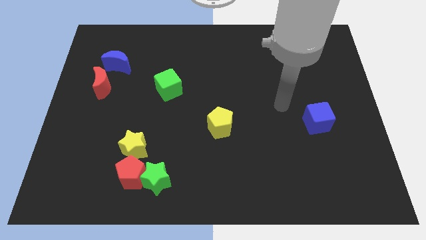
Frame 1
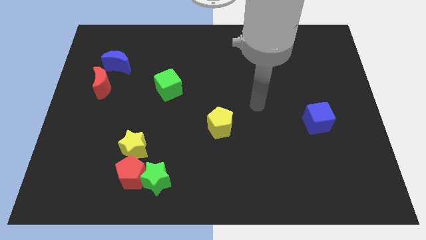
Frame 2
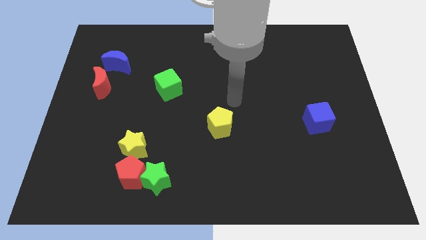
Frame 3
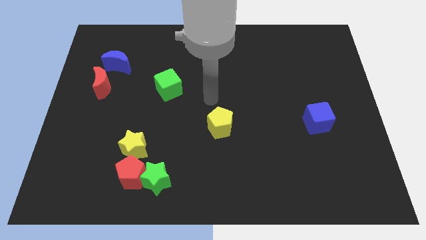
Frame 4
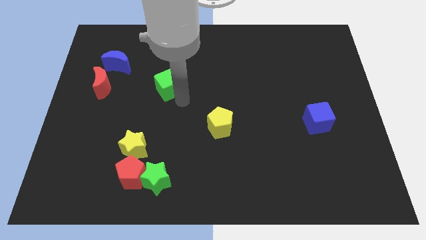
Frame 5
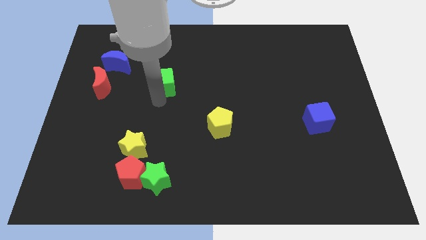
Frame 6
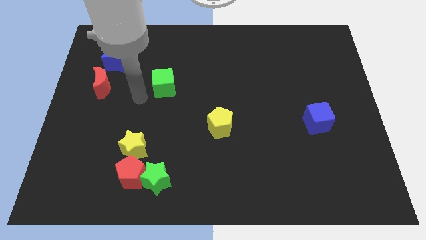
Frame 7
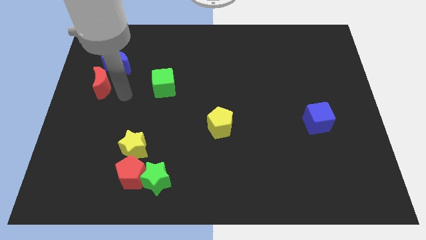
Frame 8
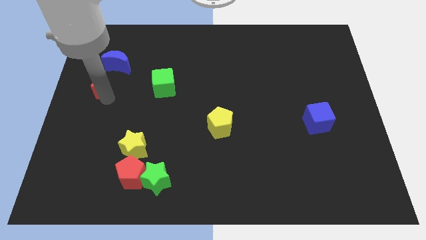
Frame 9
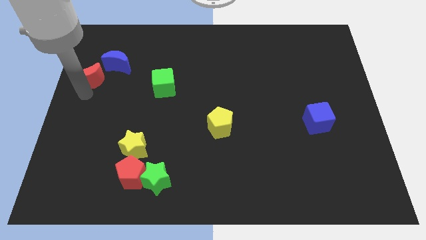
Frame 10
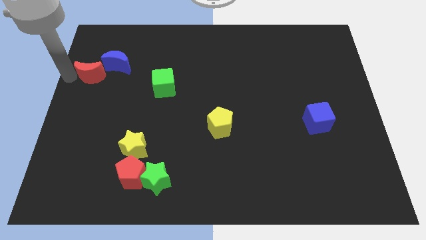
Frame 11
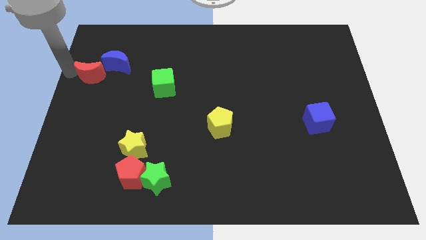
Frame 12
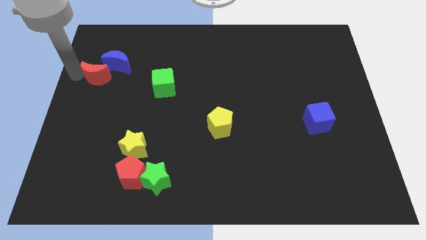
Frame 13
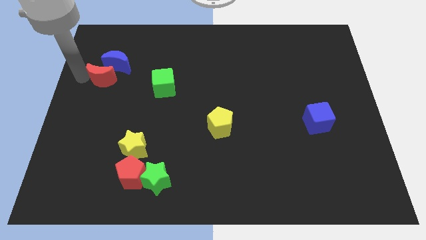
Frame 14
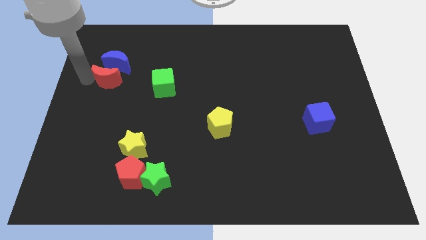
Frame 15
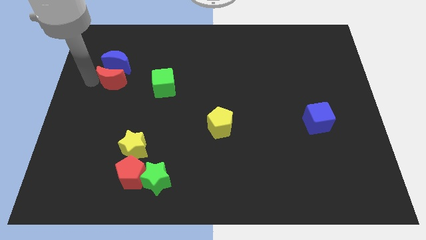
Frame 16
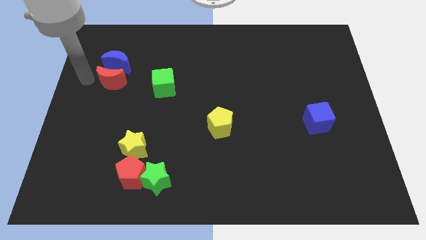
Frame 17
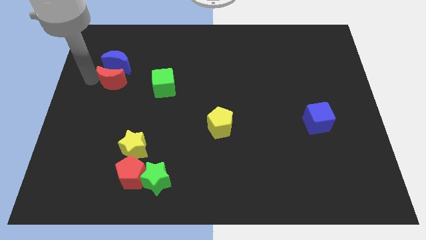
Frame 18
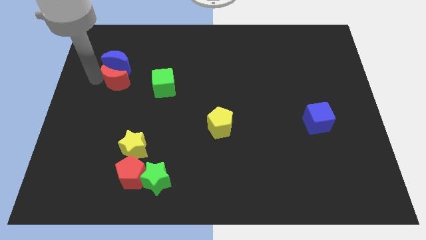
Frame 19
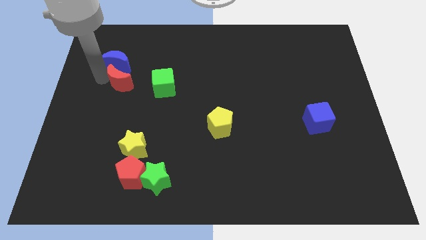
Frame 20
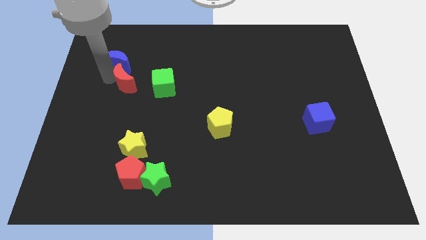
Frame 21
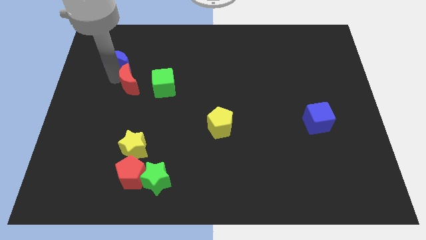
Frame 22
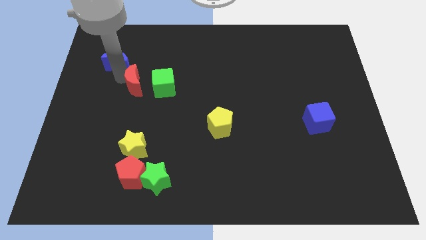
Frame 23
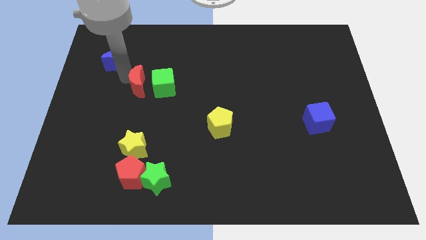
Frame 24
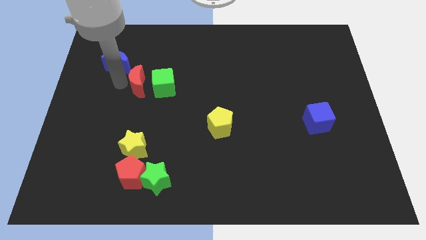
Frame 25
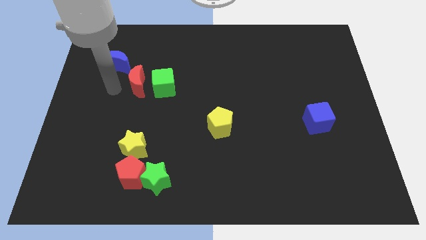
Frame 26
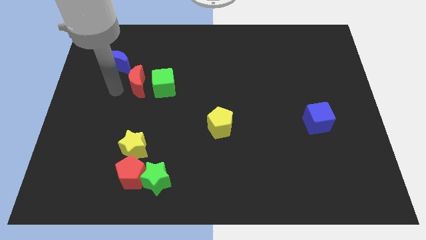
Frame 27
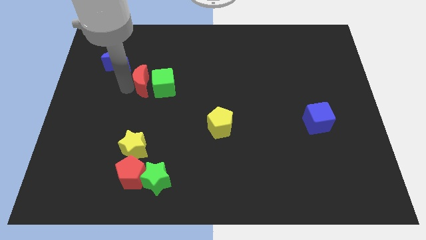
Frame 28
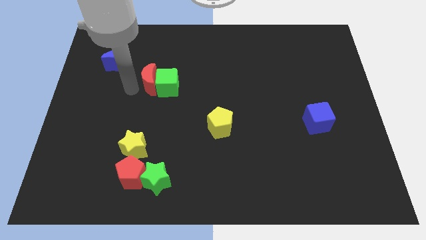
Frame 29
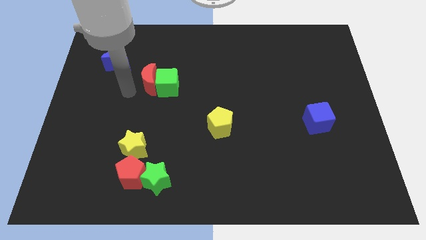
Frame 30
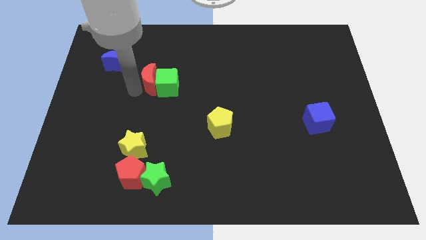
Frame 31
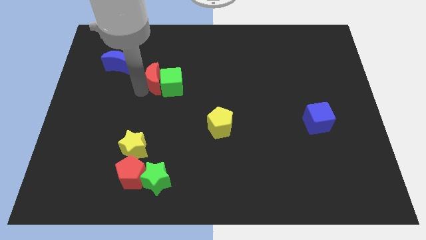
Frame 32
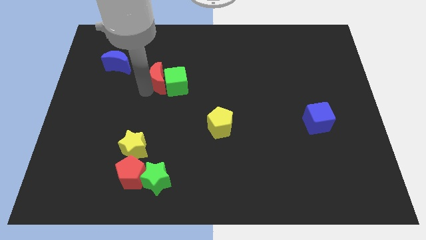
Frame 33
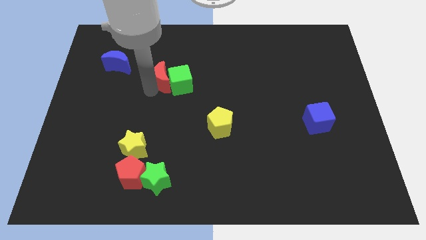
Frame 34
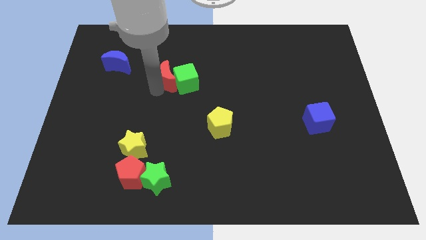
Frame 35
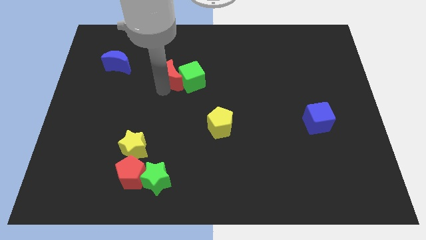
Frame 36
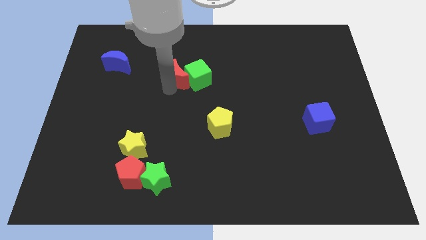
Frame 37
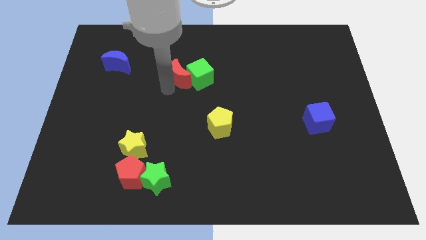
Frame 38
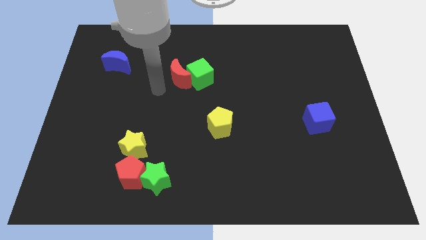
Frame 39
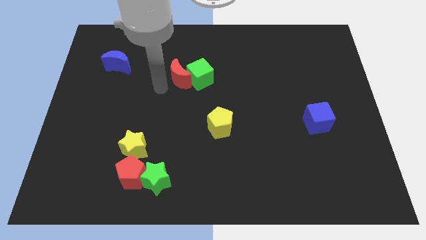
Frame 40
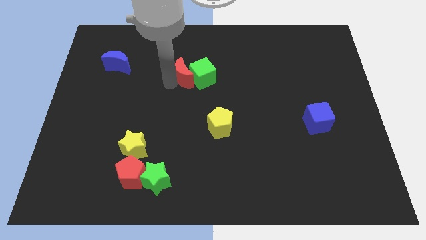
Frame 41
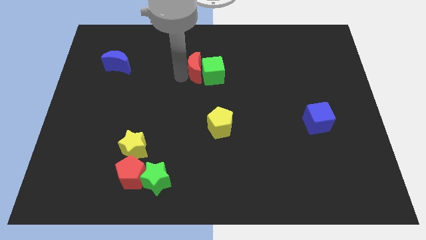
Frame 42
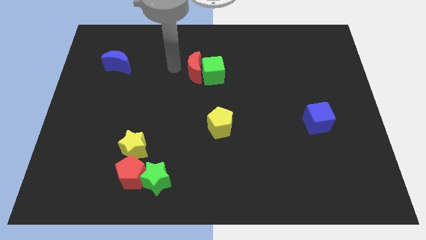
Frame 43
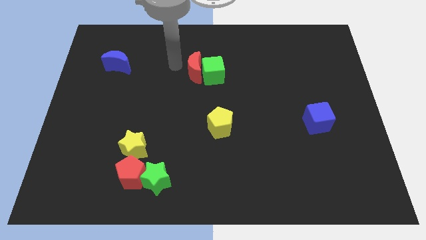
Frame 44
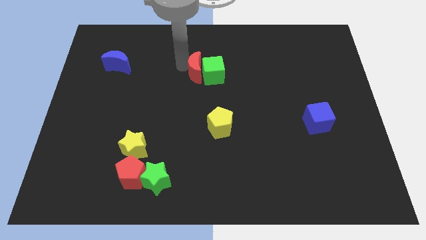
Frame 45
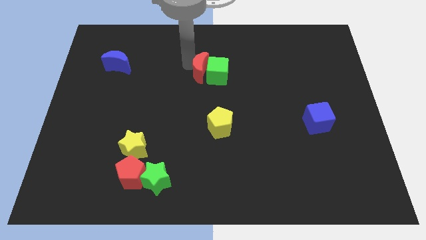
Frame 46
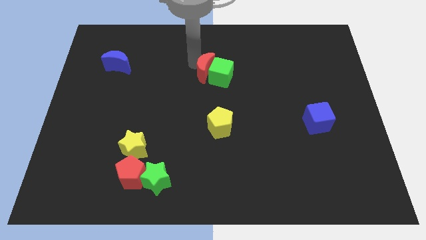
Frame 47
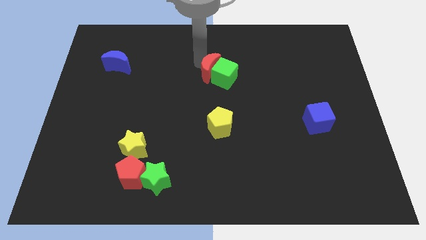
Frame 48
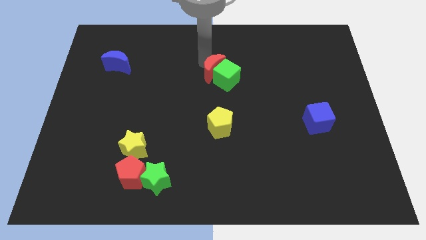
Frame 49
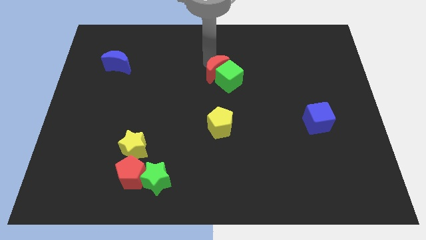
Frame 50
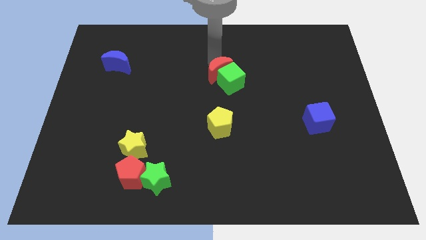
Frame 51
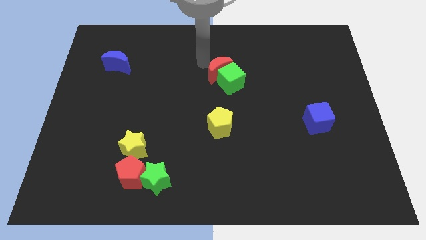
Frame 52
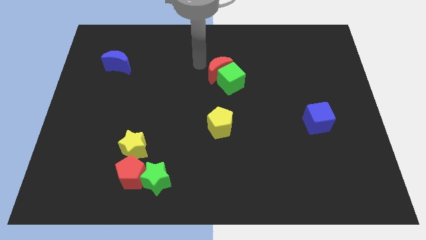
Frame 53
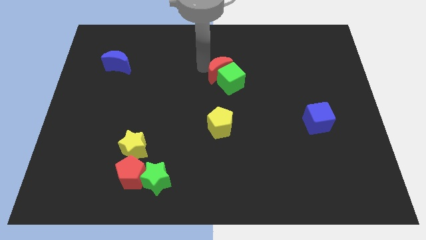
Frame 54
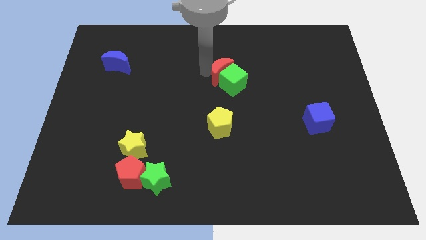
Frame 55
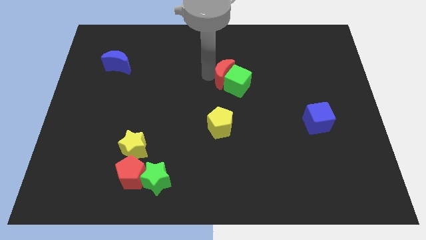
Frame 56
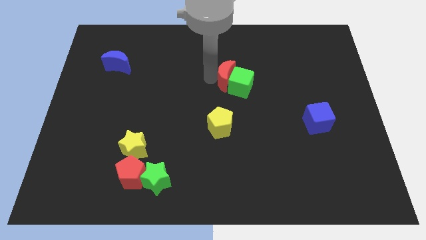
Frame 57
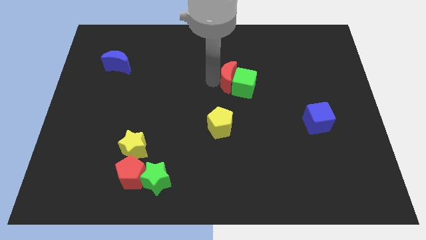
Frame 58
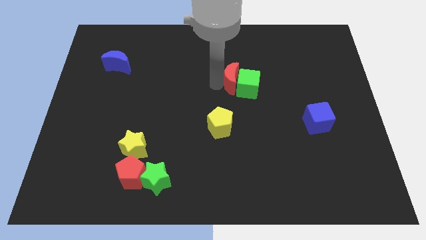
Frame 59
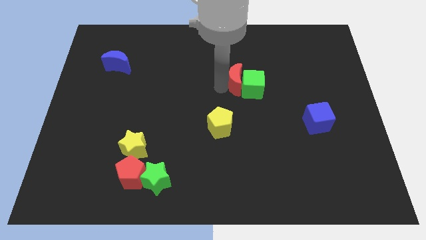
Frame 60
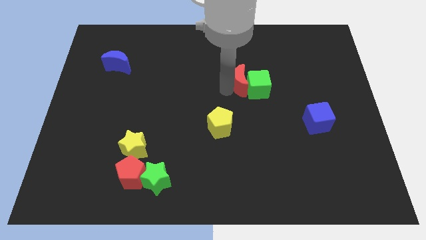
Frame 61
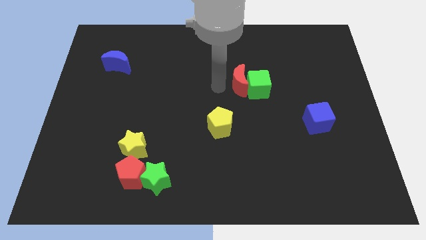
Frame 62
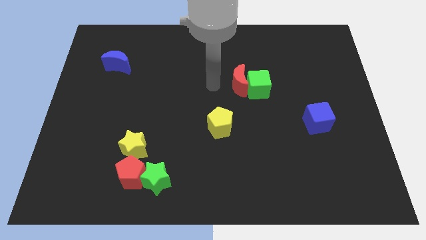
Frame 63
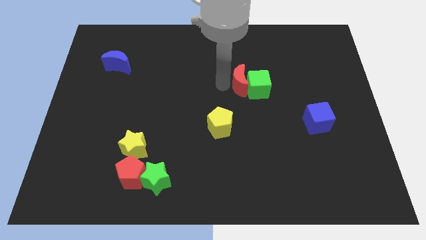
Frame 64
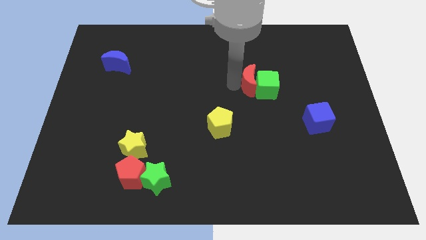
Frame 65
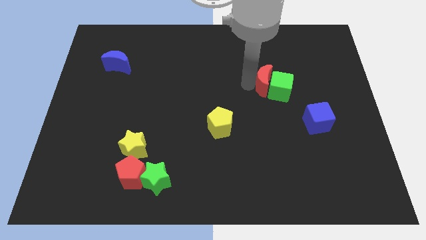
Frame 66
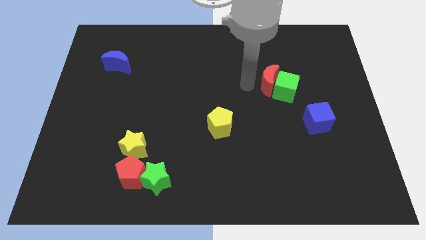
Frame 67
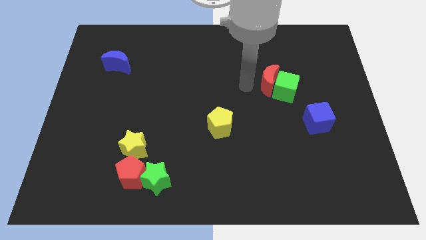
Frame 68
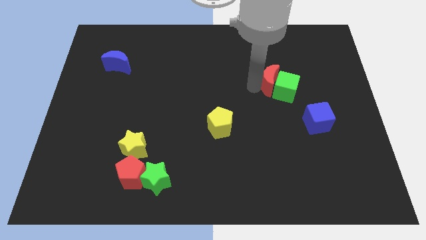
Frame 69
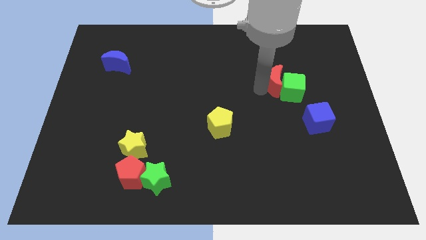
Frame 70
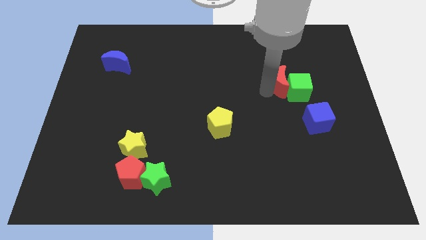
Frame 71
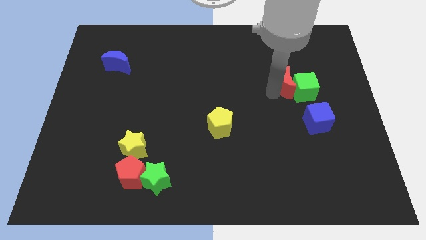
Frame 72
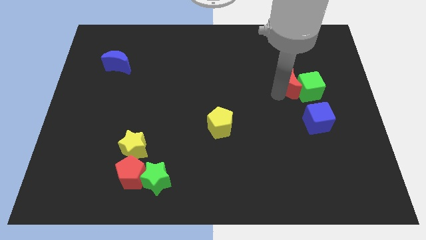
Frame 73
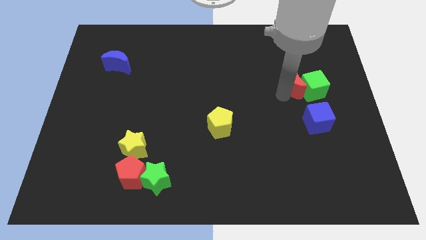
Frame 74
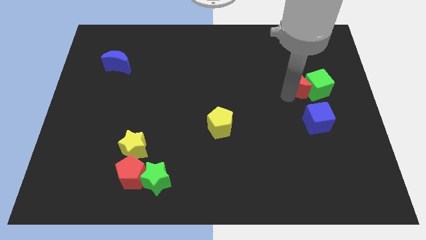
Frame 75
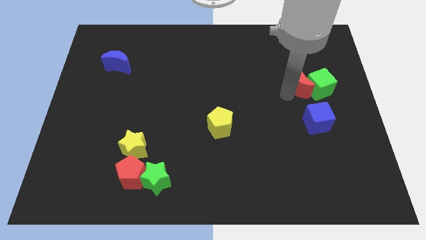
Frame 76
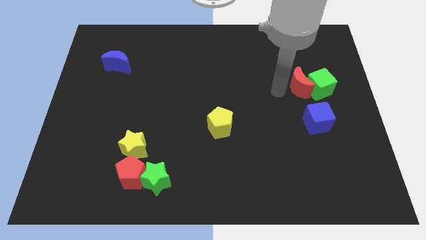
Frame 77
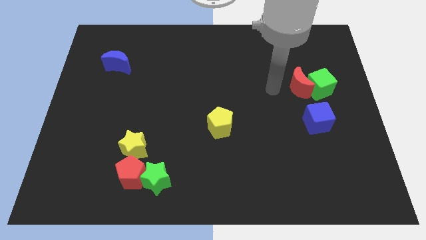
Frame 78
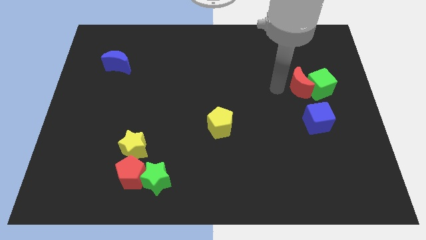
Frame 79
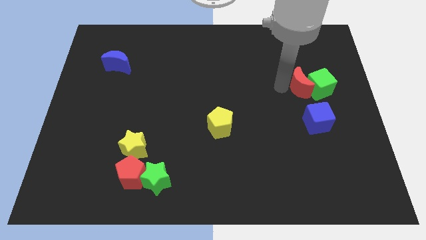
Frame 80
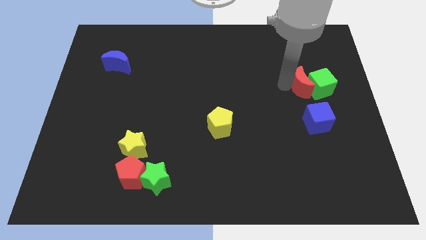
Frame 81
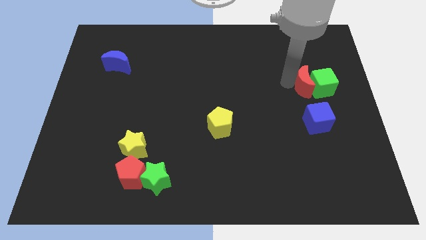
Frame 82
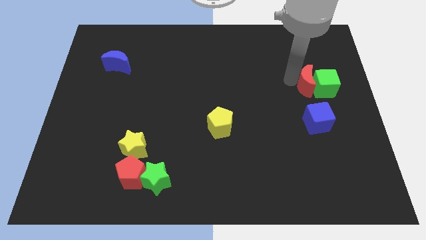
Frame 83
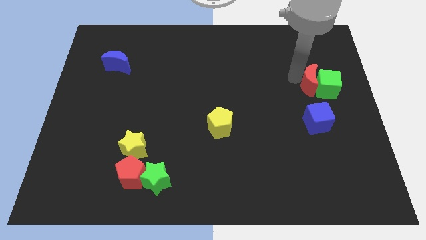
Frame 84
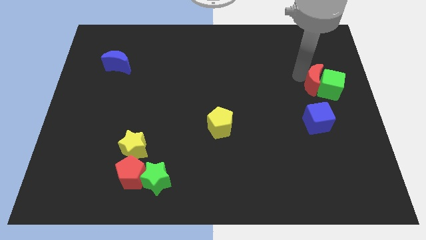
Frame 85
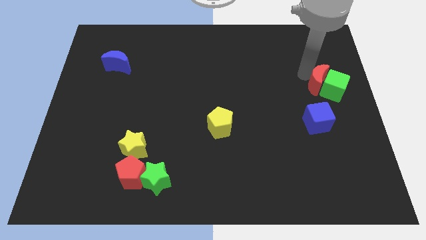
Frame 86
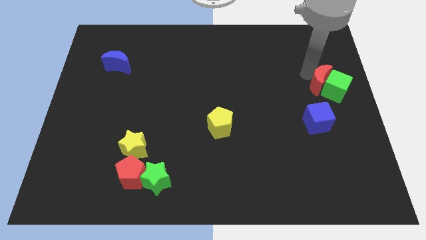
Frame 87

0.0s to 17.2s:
move the red moon to the right side
